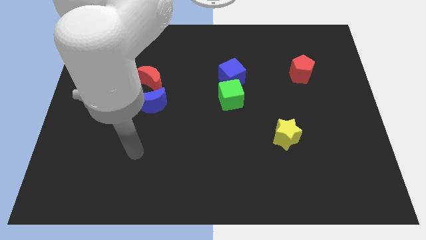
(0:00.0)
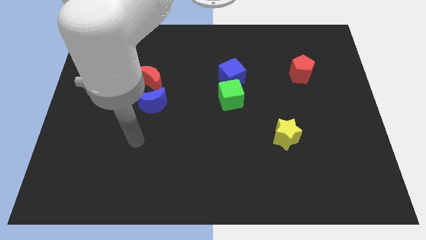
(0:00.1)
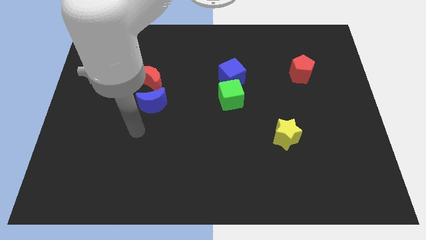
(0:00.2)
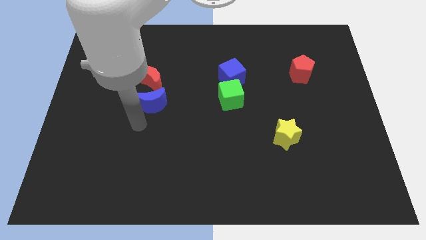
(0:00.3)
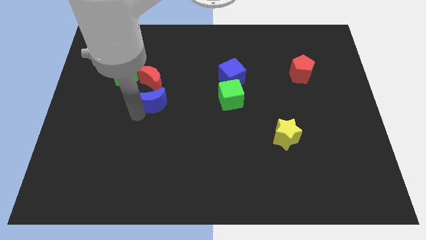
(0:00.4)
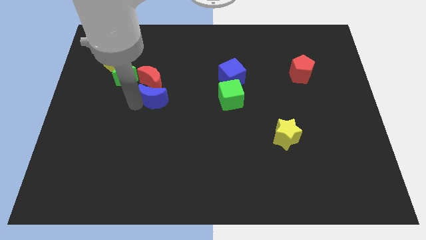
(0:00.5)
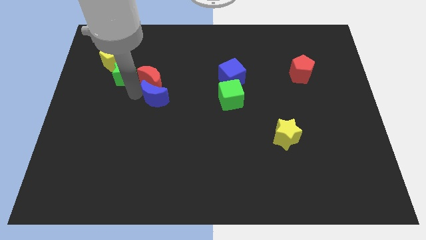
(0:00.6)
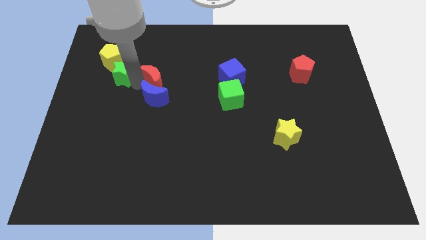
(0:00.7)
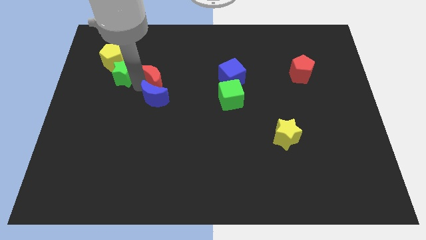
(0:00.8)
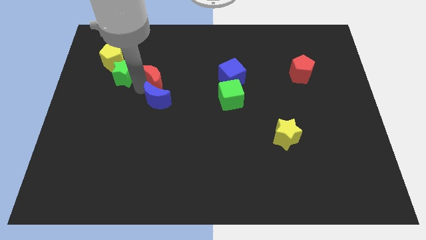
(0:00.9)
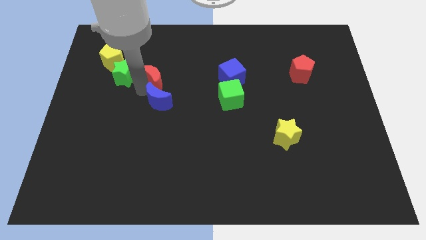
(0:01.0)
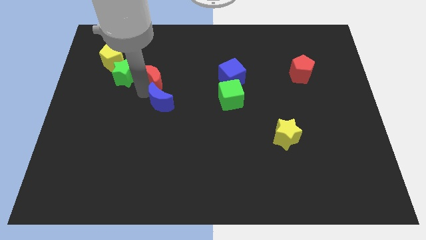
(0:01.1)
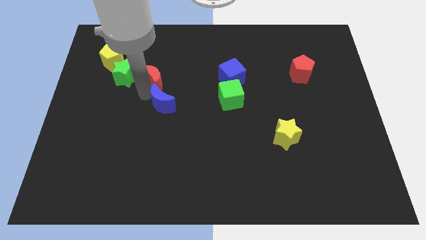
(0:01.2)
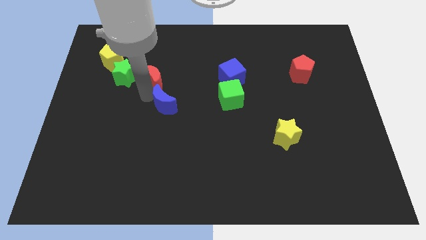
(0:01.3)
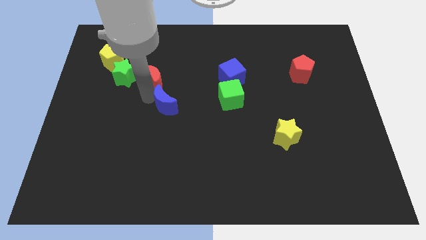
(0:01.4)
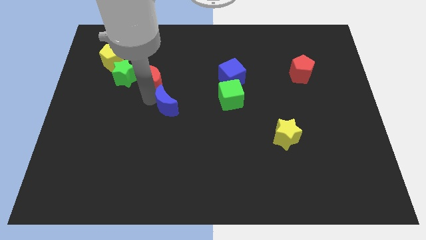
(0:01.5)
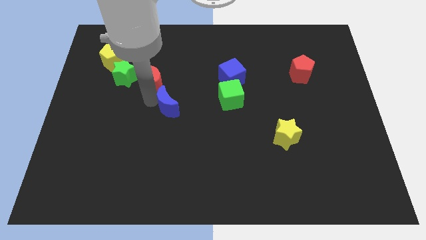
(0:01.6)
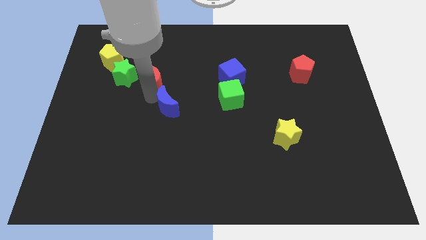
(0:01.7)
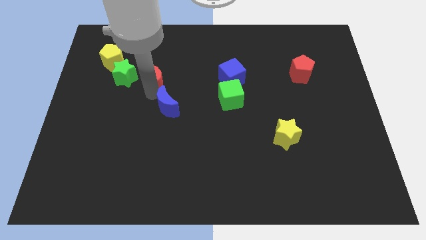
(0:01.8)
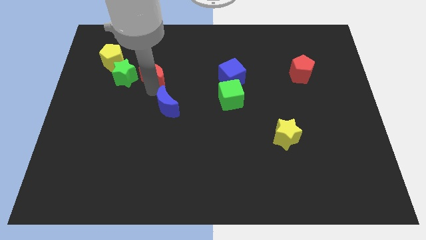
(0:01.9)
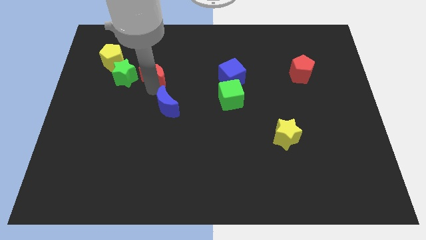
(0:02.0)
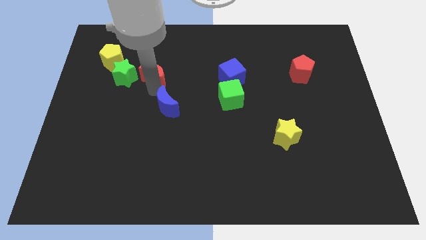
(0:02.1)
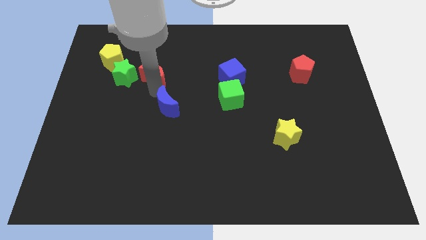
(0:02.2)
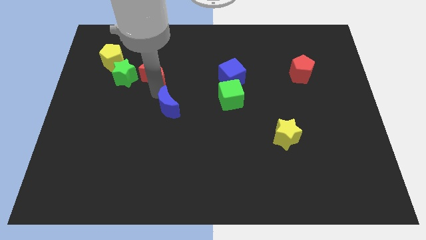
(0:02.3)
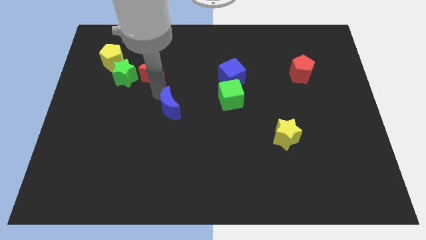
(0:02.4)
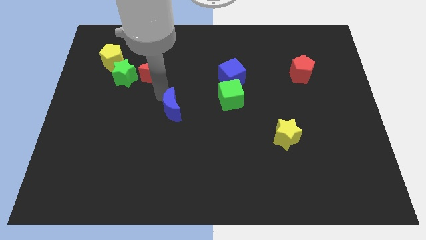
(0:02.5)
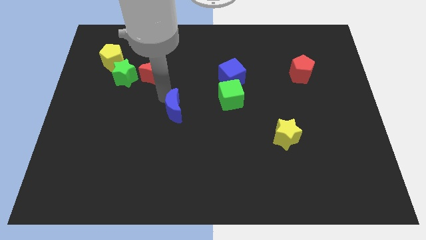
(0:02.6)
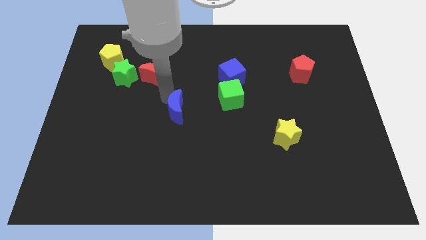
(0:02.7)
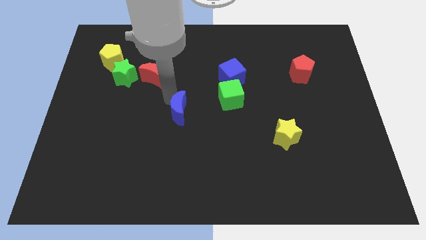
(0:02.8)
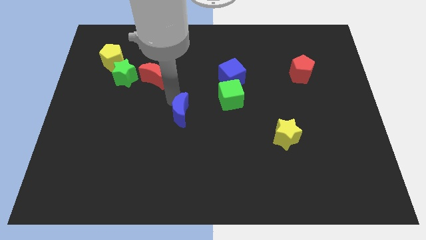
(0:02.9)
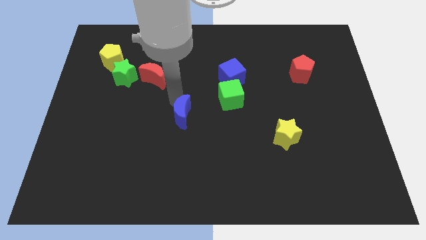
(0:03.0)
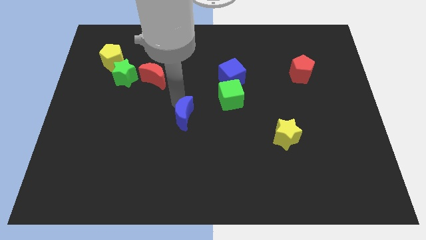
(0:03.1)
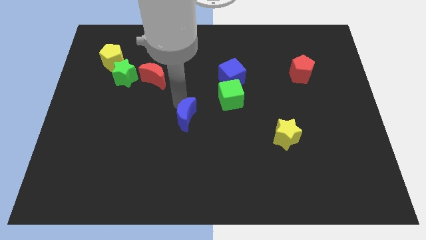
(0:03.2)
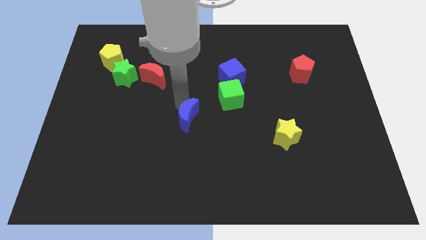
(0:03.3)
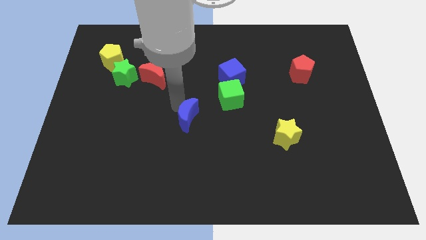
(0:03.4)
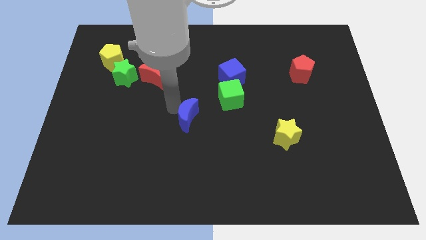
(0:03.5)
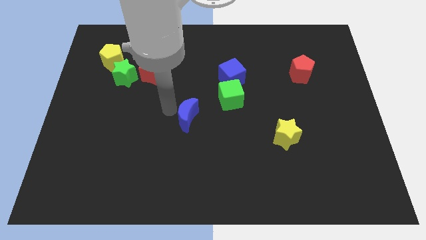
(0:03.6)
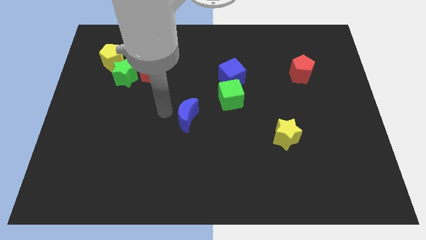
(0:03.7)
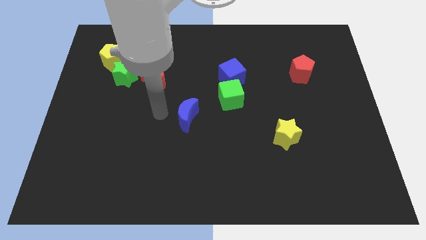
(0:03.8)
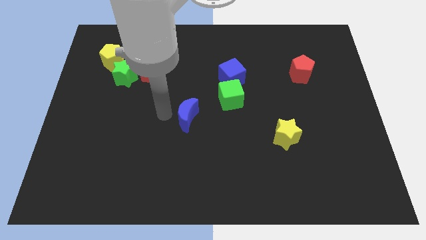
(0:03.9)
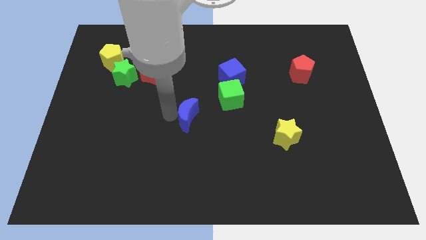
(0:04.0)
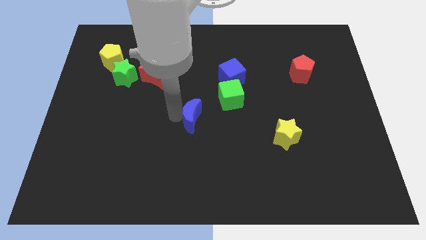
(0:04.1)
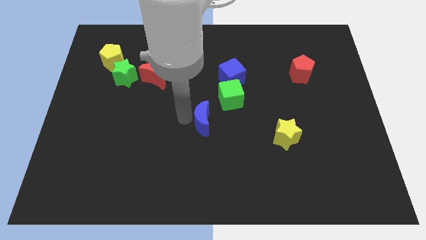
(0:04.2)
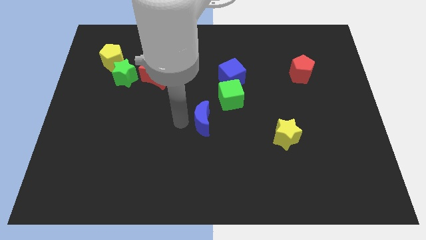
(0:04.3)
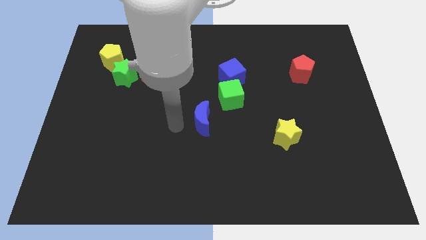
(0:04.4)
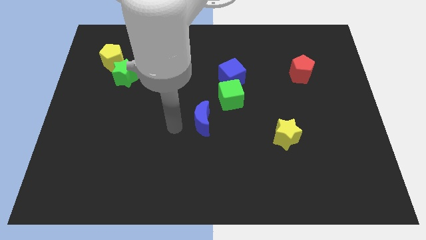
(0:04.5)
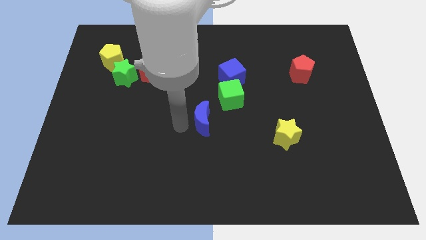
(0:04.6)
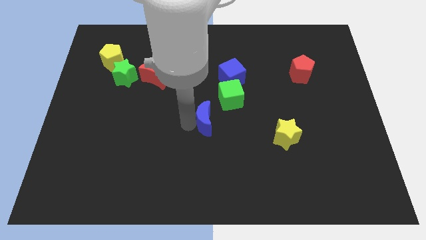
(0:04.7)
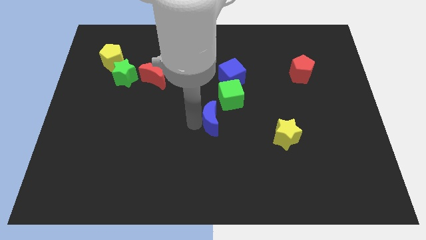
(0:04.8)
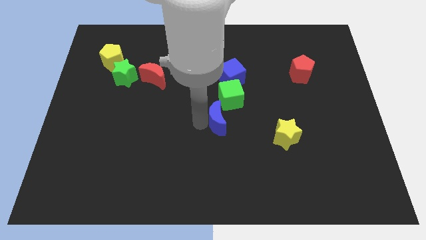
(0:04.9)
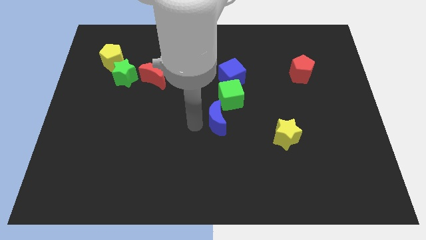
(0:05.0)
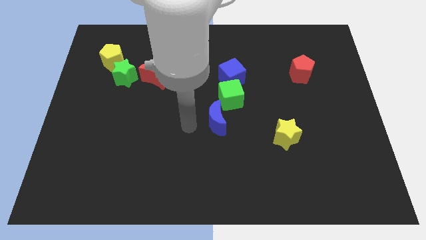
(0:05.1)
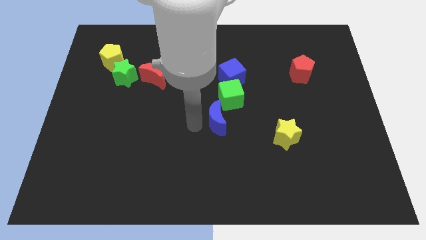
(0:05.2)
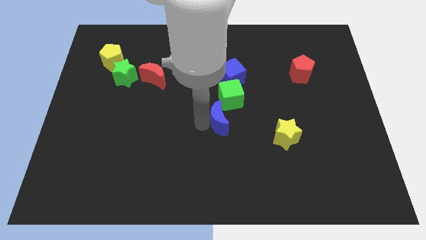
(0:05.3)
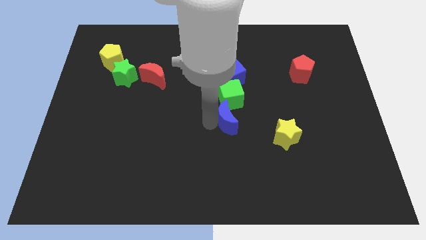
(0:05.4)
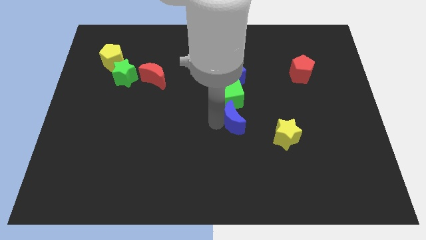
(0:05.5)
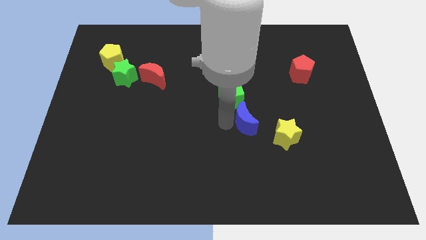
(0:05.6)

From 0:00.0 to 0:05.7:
slide the blue moon to the right

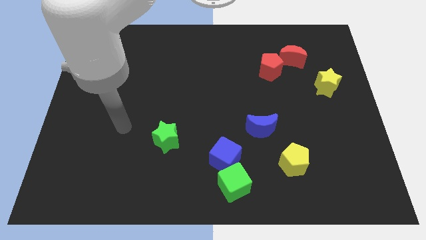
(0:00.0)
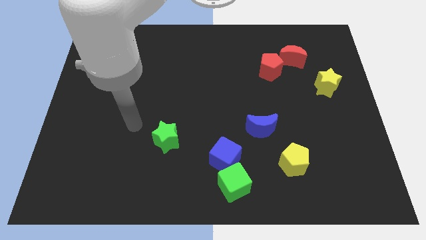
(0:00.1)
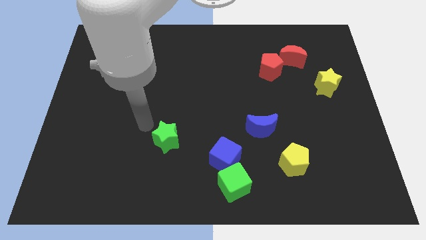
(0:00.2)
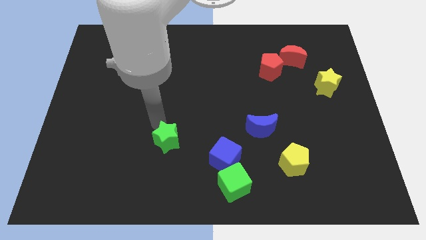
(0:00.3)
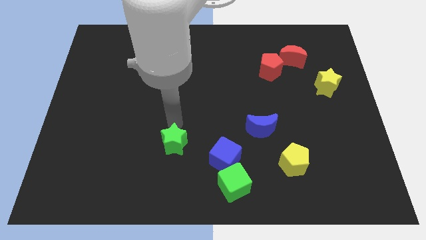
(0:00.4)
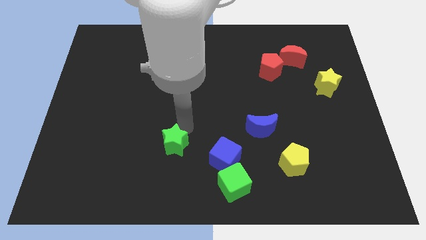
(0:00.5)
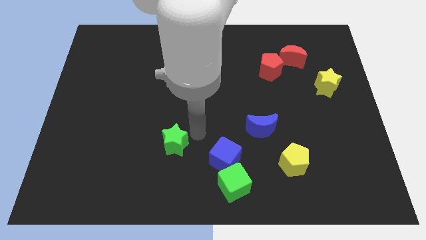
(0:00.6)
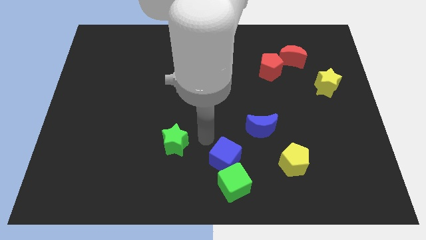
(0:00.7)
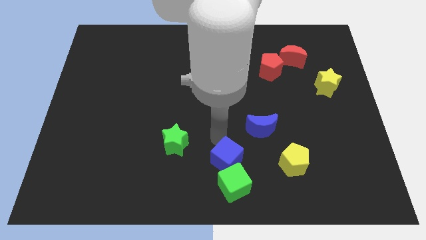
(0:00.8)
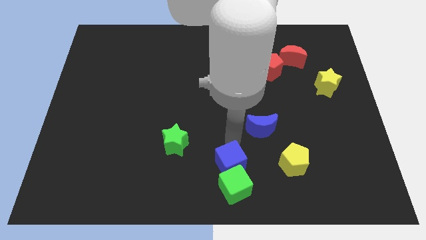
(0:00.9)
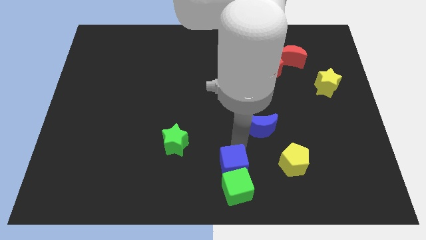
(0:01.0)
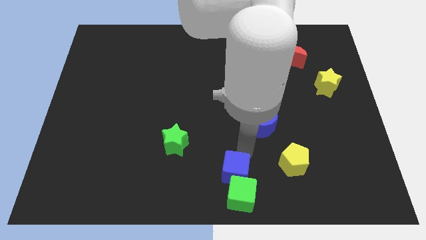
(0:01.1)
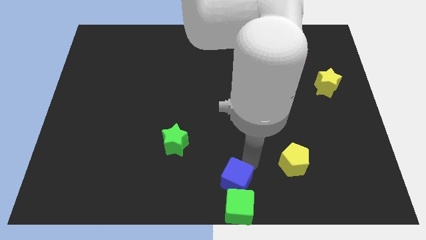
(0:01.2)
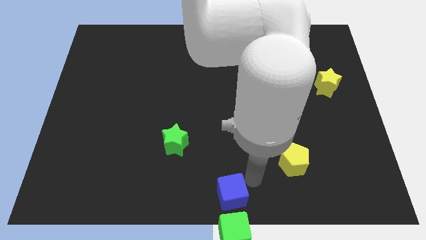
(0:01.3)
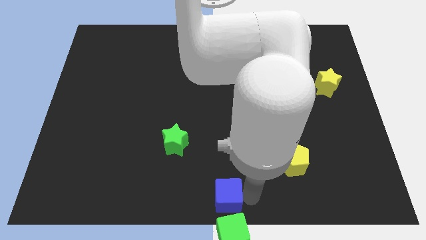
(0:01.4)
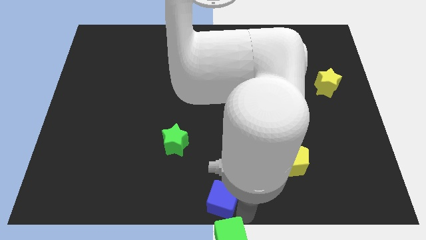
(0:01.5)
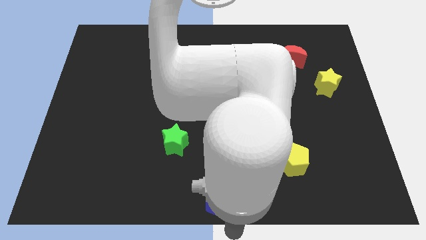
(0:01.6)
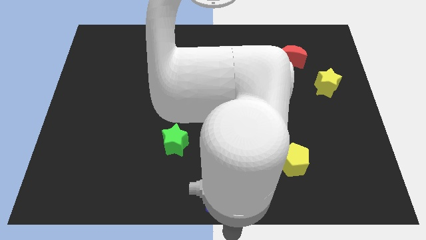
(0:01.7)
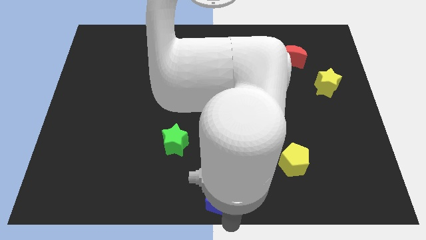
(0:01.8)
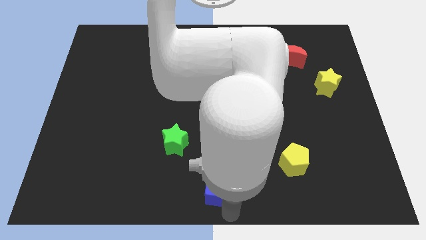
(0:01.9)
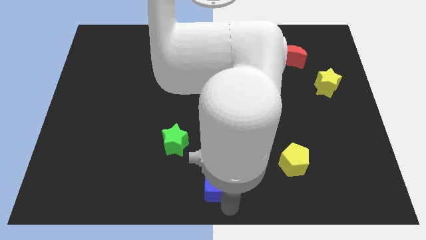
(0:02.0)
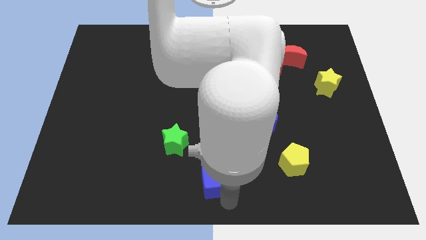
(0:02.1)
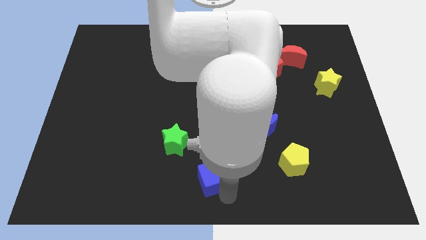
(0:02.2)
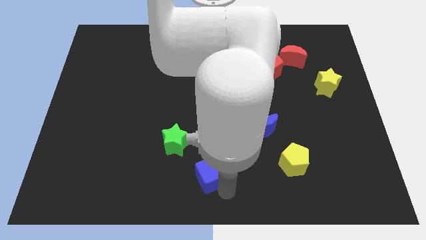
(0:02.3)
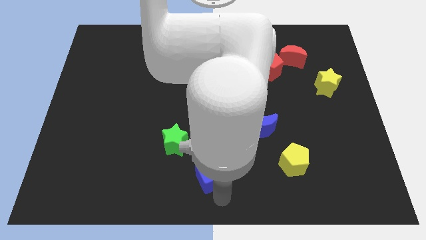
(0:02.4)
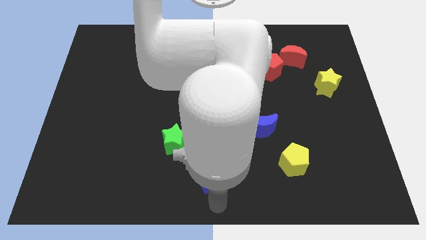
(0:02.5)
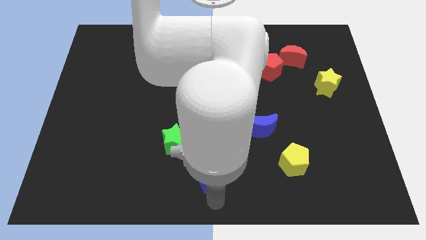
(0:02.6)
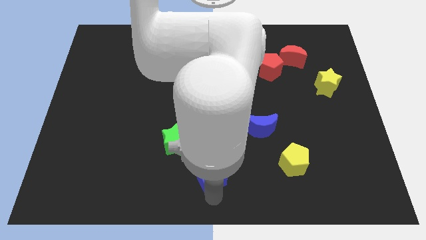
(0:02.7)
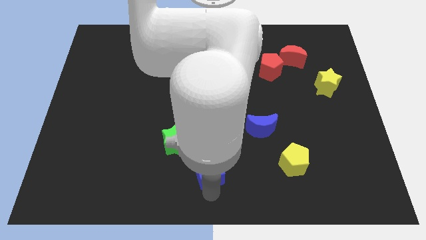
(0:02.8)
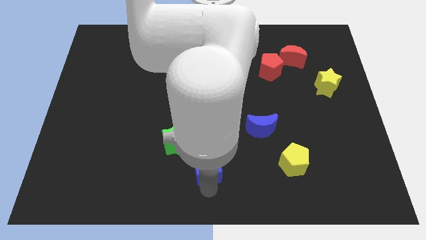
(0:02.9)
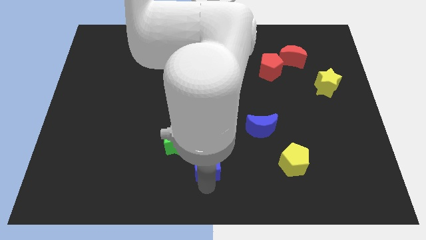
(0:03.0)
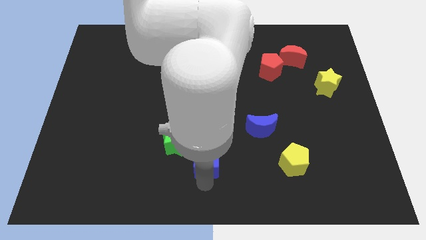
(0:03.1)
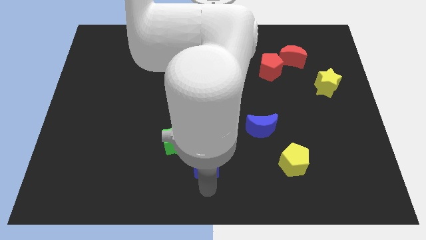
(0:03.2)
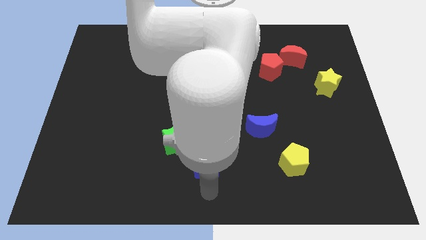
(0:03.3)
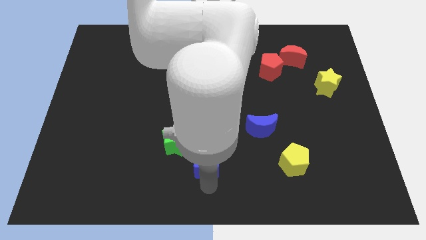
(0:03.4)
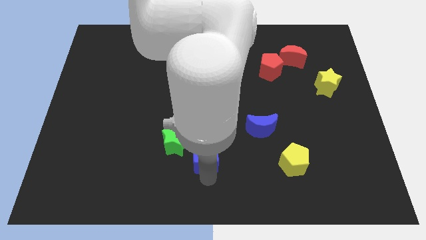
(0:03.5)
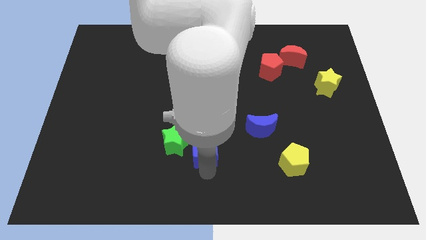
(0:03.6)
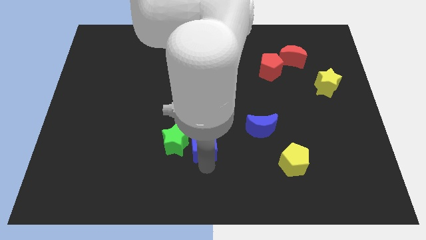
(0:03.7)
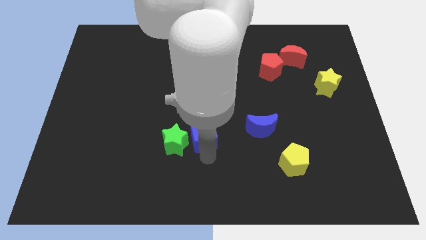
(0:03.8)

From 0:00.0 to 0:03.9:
slightly move the blue cube up and to the left diagonally
